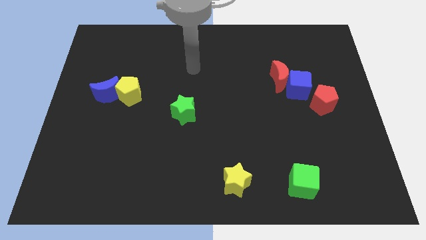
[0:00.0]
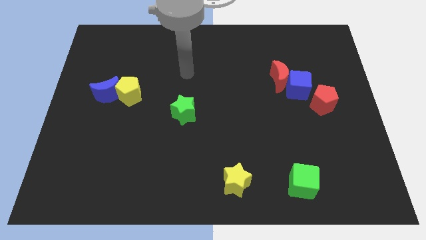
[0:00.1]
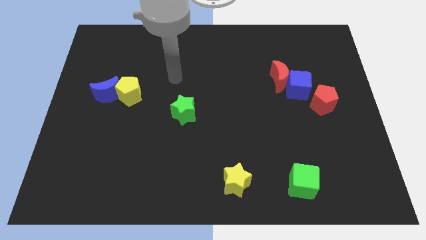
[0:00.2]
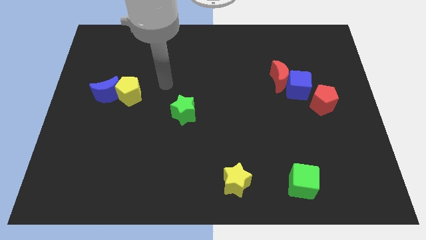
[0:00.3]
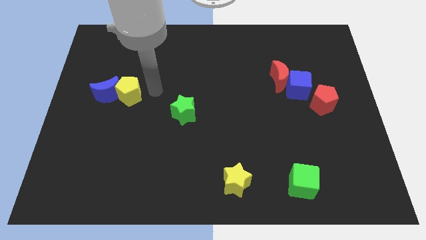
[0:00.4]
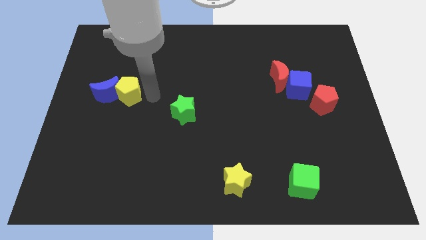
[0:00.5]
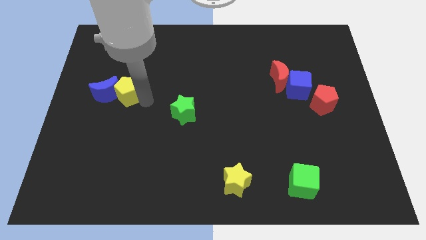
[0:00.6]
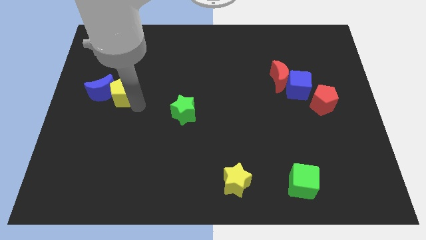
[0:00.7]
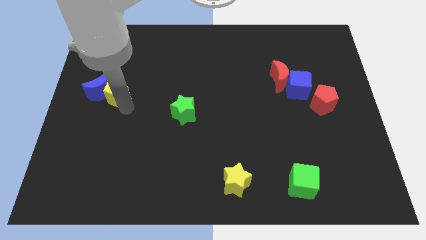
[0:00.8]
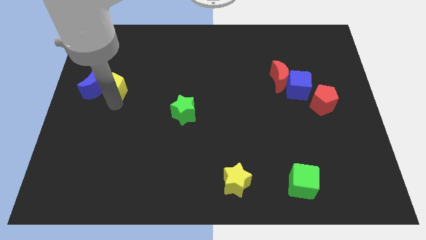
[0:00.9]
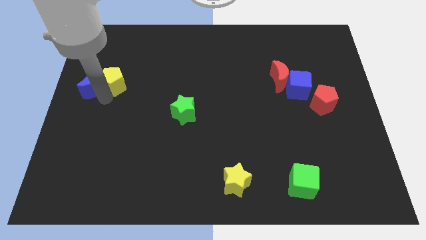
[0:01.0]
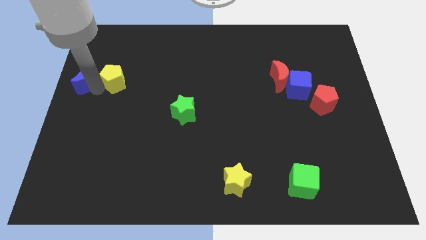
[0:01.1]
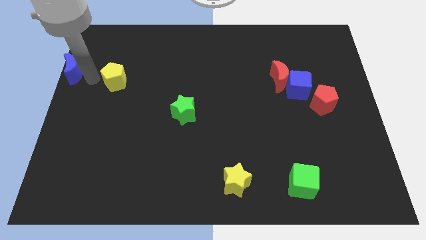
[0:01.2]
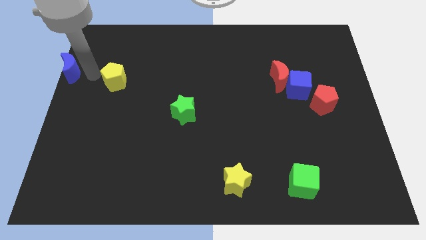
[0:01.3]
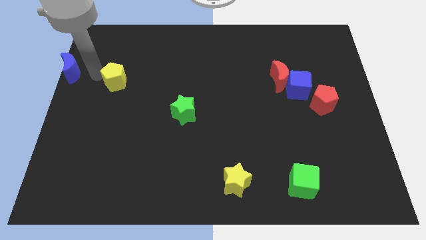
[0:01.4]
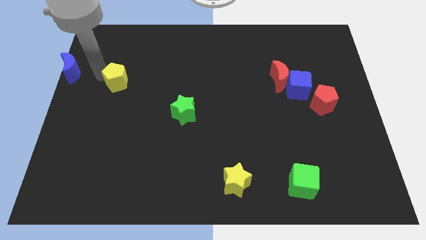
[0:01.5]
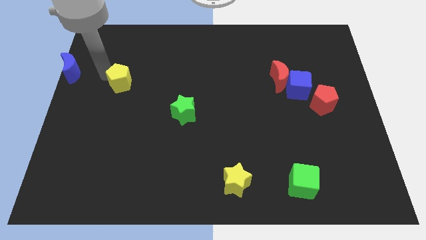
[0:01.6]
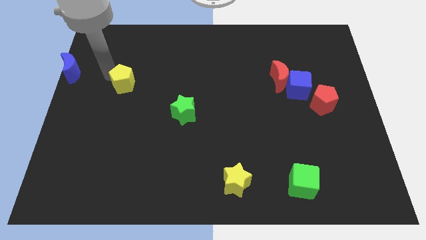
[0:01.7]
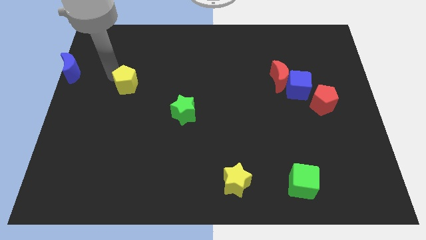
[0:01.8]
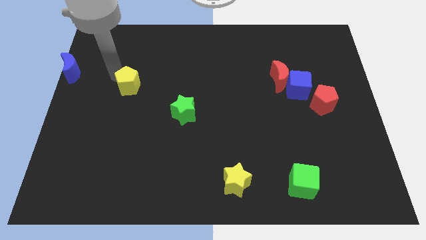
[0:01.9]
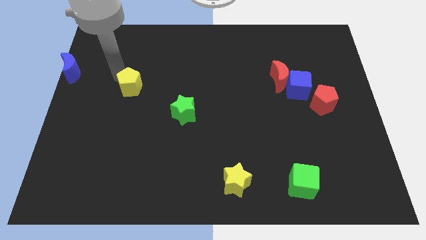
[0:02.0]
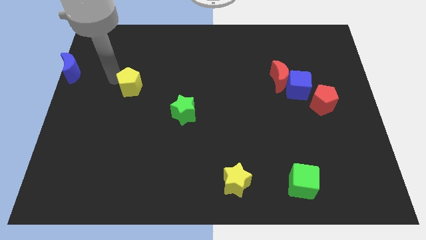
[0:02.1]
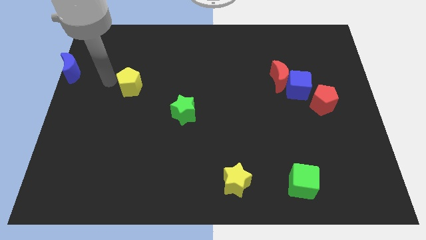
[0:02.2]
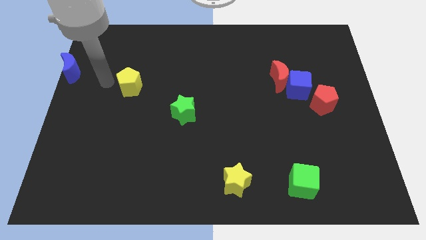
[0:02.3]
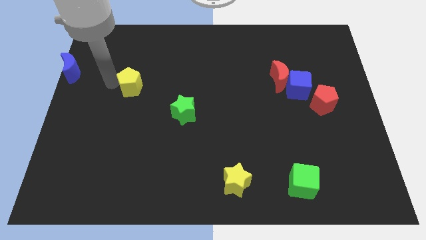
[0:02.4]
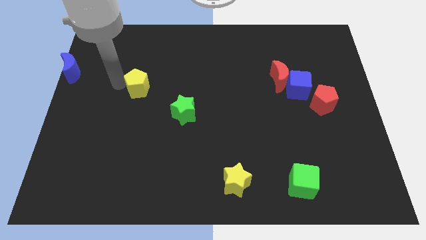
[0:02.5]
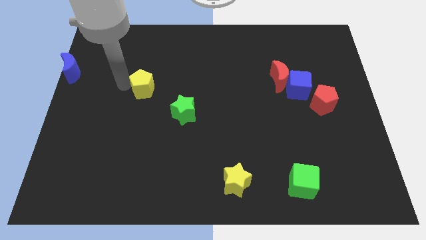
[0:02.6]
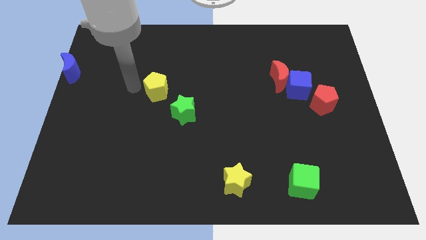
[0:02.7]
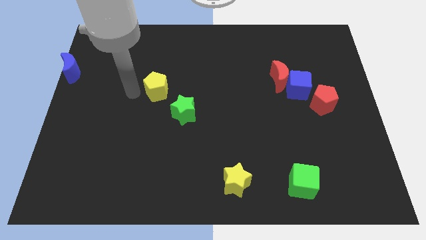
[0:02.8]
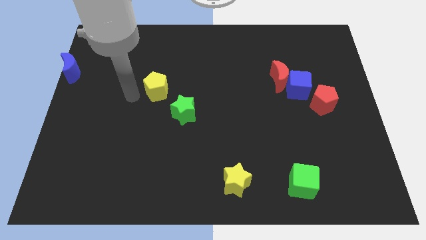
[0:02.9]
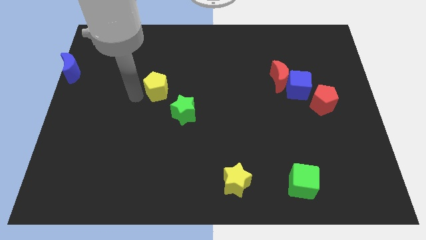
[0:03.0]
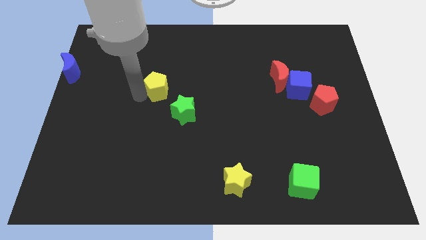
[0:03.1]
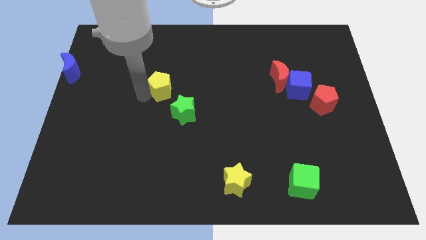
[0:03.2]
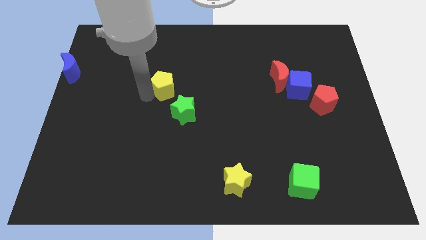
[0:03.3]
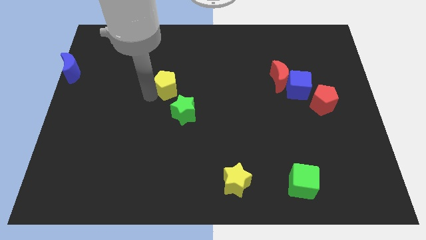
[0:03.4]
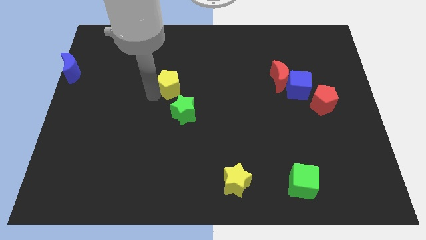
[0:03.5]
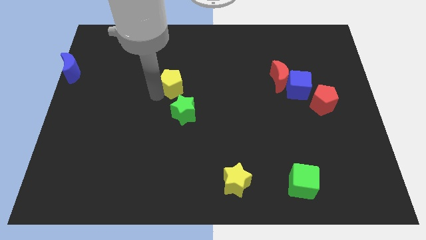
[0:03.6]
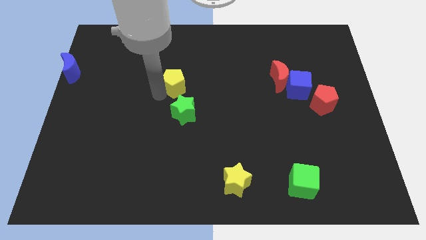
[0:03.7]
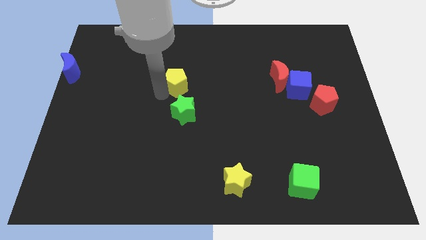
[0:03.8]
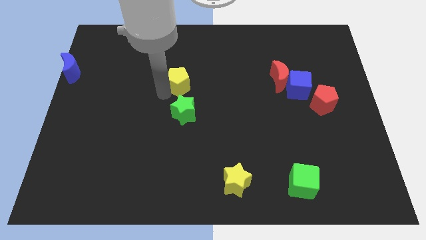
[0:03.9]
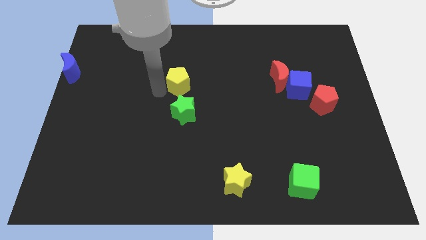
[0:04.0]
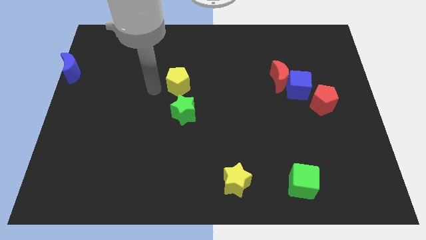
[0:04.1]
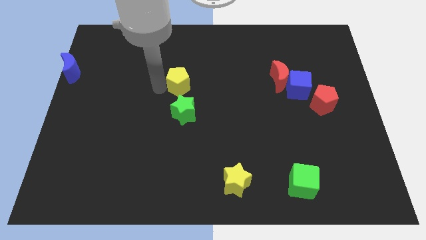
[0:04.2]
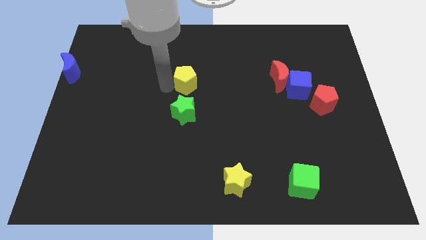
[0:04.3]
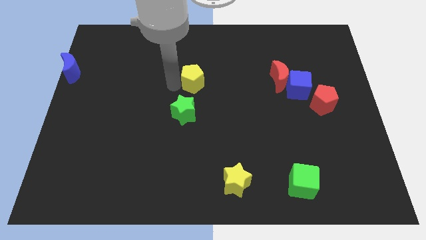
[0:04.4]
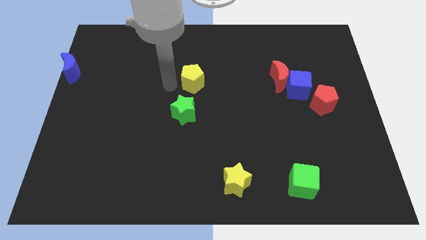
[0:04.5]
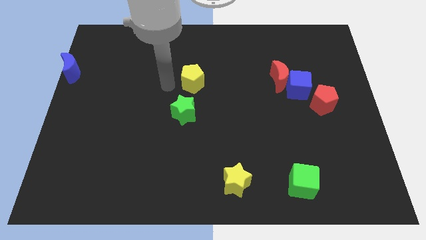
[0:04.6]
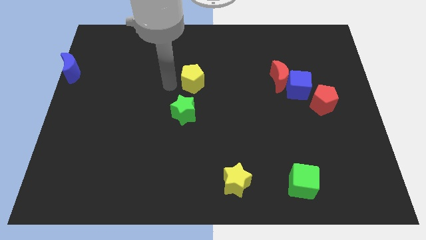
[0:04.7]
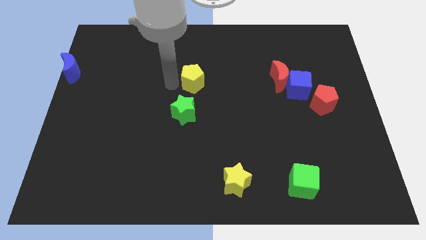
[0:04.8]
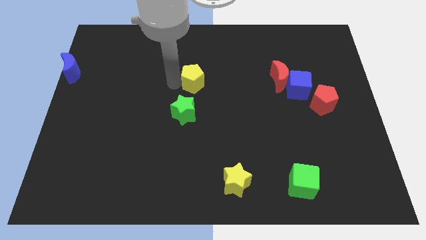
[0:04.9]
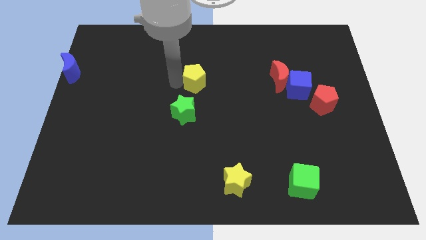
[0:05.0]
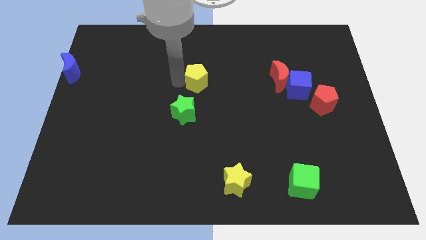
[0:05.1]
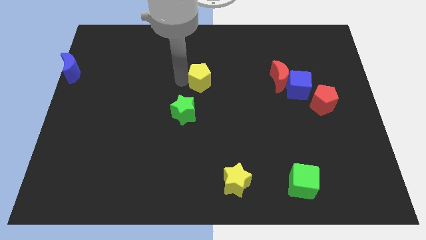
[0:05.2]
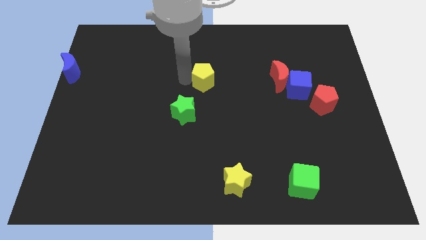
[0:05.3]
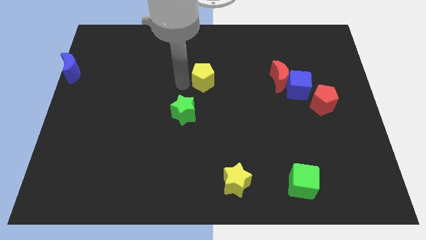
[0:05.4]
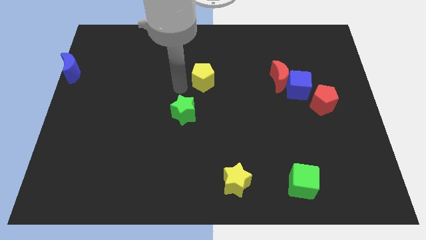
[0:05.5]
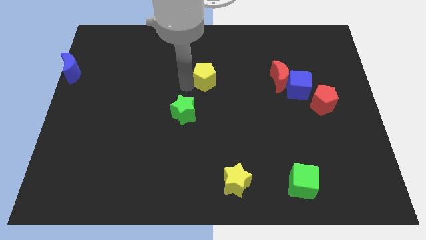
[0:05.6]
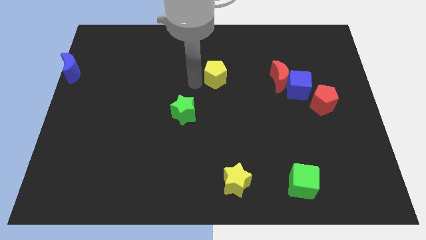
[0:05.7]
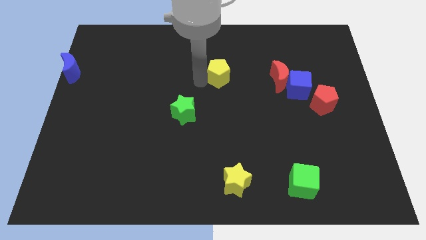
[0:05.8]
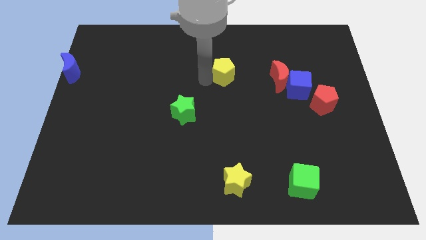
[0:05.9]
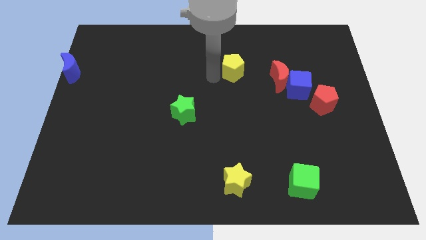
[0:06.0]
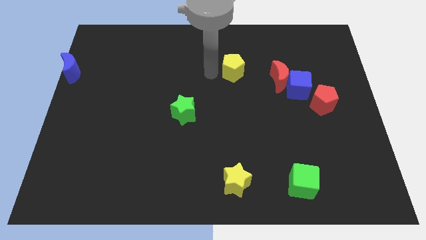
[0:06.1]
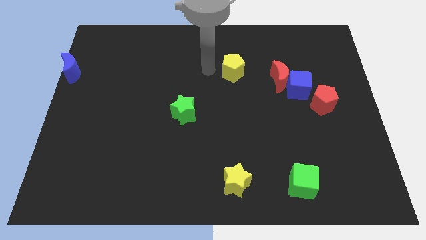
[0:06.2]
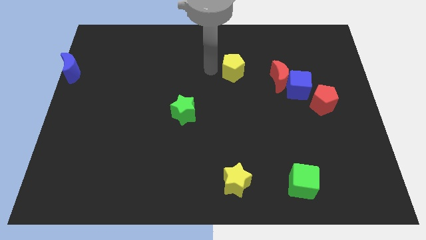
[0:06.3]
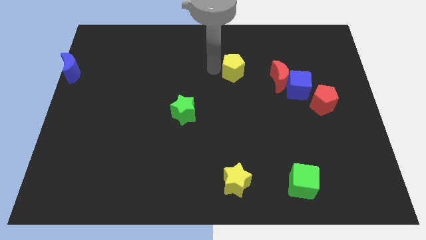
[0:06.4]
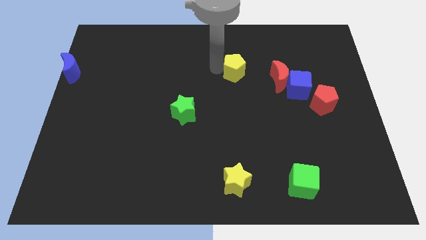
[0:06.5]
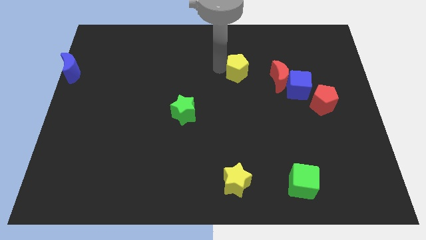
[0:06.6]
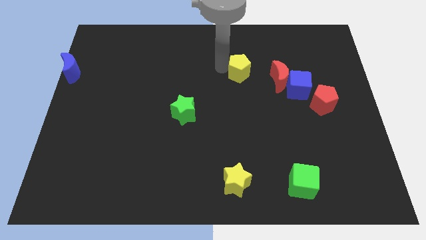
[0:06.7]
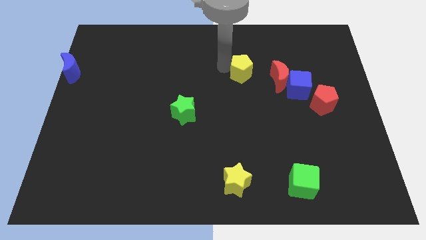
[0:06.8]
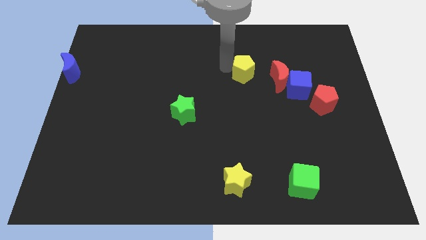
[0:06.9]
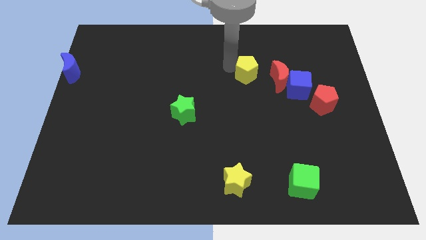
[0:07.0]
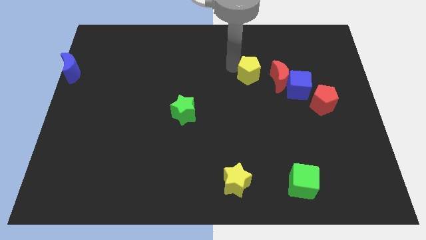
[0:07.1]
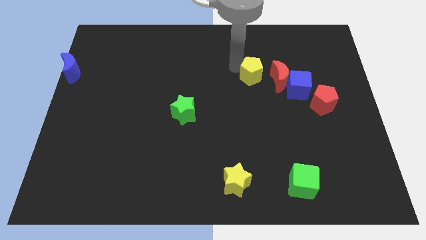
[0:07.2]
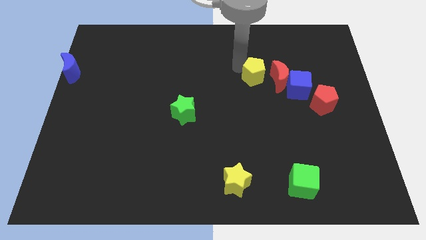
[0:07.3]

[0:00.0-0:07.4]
push the yellow pentagon to the top left side of the blue cube

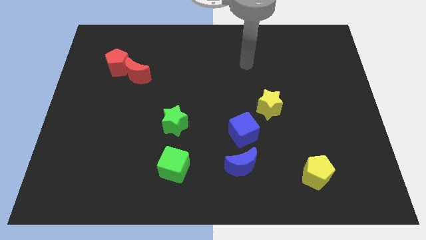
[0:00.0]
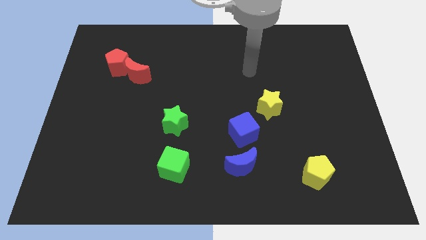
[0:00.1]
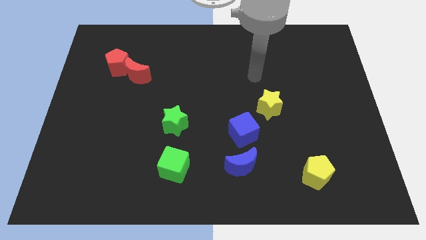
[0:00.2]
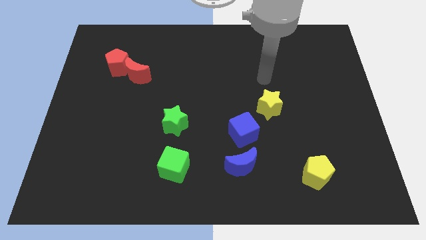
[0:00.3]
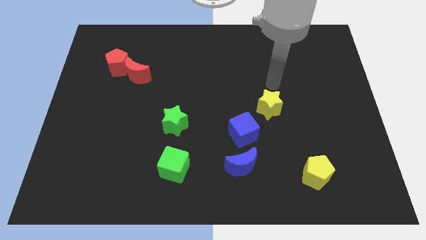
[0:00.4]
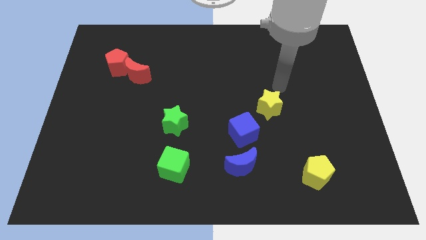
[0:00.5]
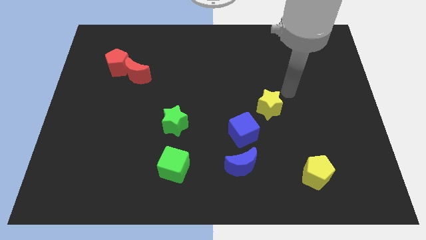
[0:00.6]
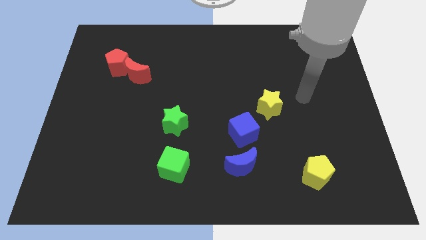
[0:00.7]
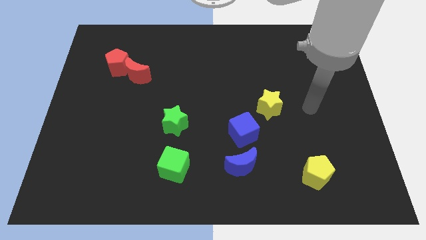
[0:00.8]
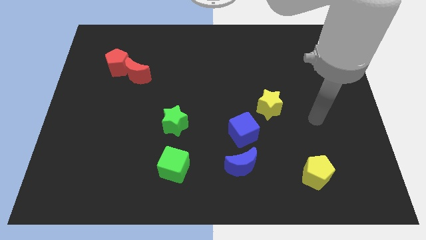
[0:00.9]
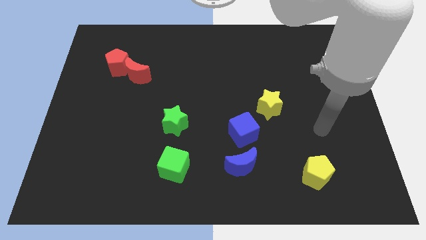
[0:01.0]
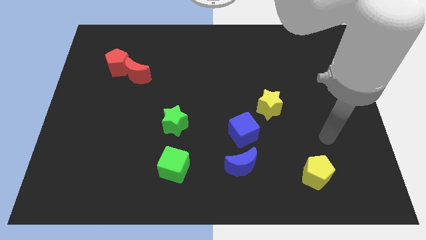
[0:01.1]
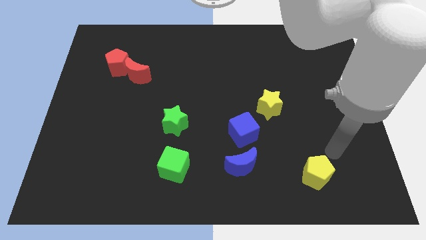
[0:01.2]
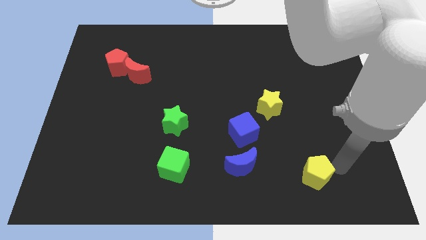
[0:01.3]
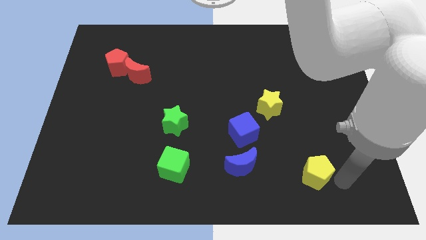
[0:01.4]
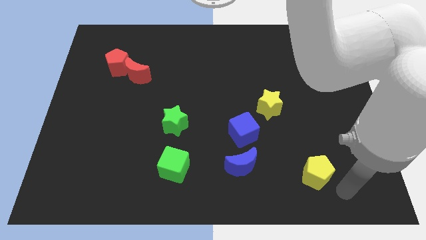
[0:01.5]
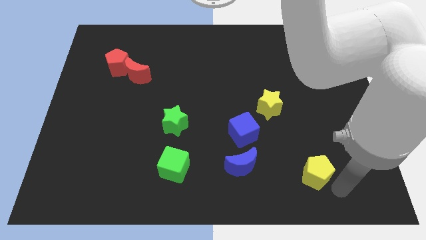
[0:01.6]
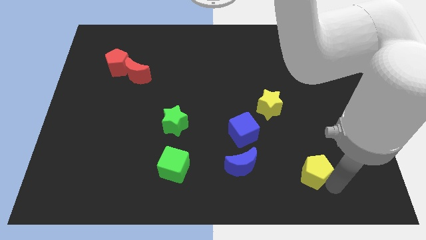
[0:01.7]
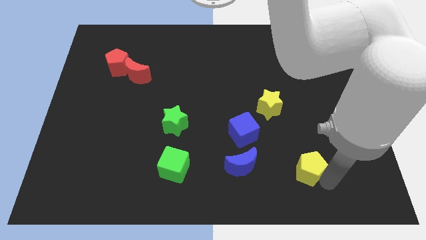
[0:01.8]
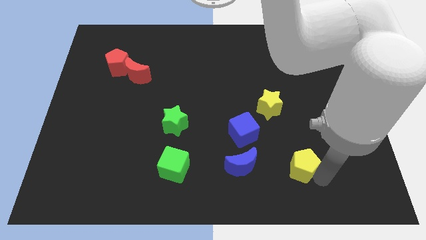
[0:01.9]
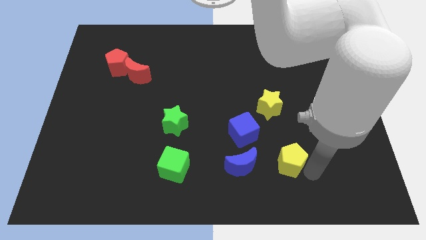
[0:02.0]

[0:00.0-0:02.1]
put the yellow pentagon to the bottom right side of the blue cube
